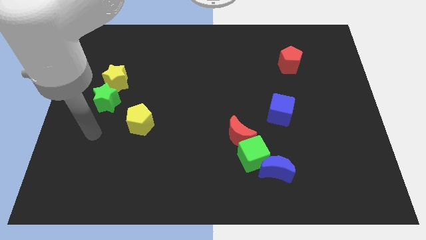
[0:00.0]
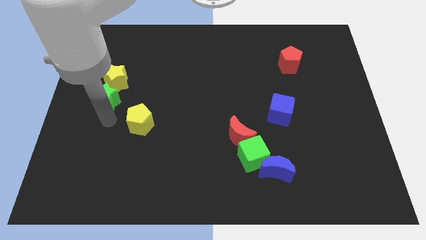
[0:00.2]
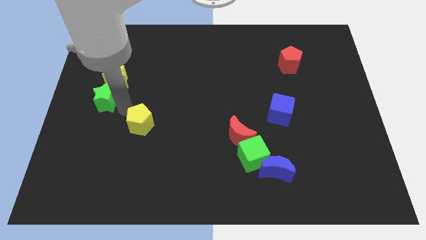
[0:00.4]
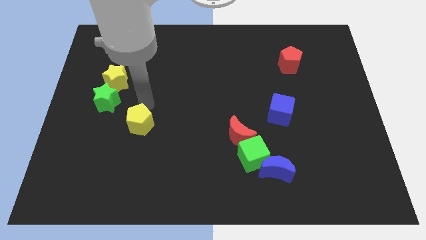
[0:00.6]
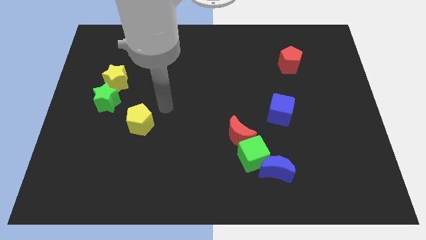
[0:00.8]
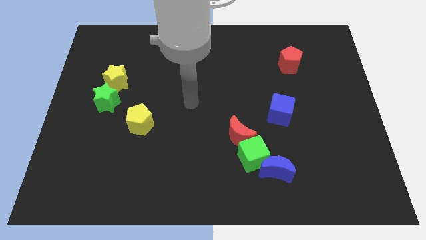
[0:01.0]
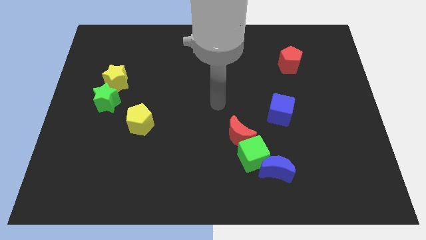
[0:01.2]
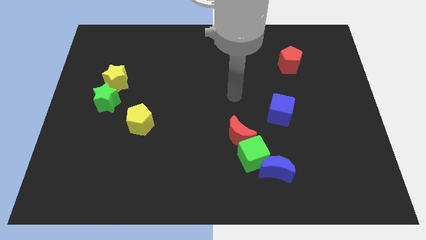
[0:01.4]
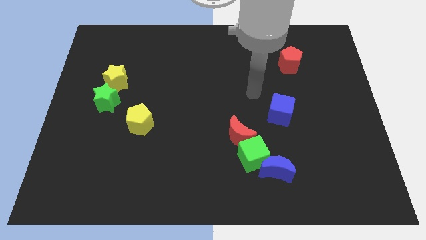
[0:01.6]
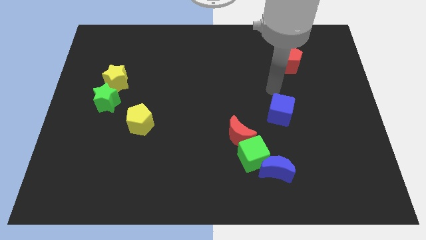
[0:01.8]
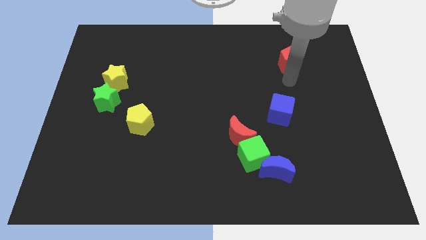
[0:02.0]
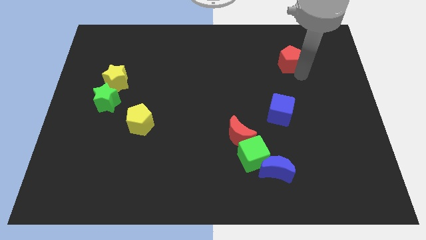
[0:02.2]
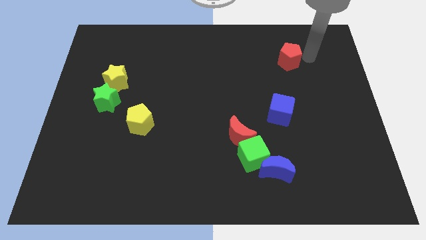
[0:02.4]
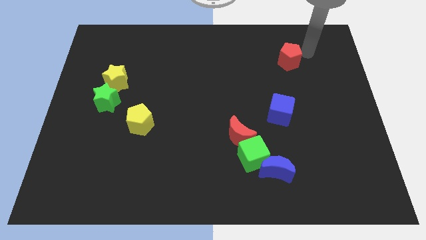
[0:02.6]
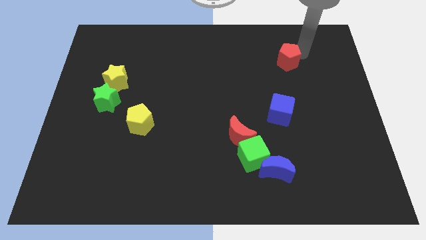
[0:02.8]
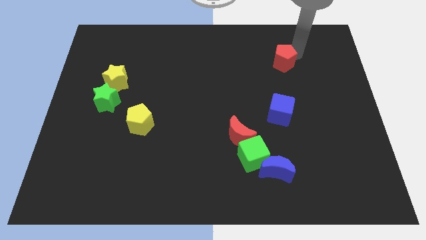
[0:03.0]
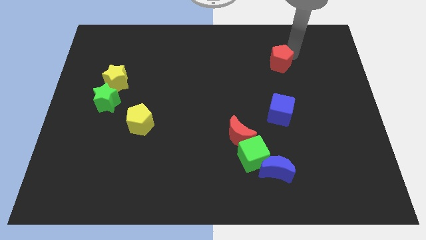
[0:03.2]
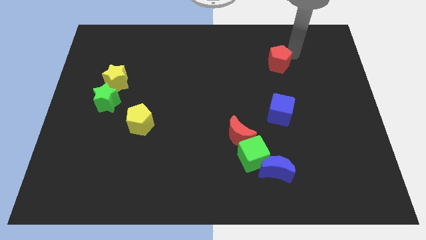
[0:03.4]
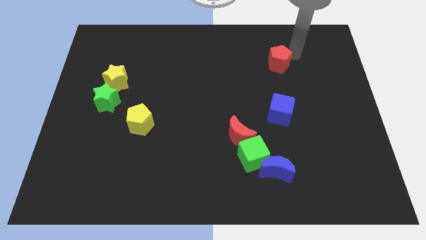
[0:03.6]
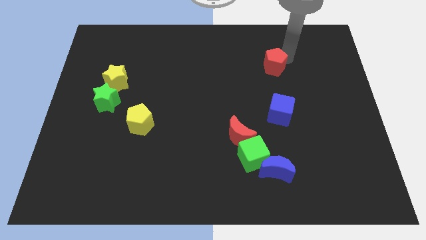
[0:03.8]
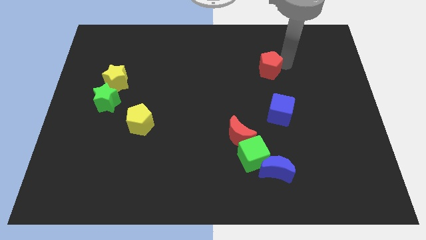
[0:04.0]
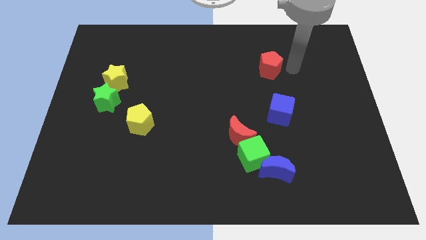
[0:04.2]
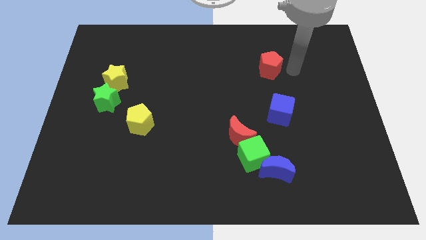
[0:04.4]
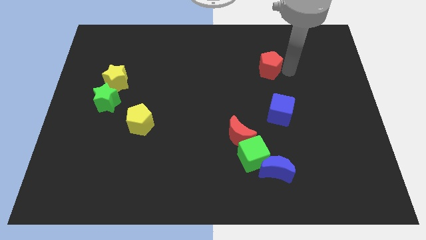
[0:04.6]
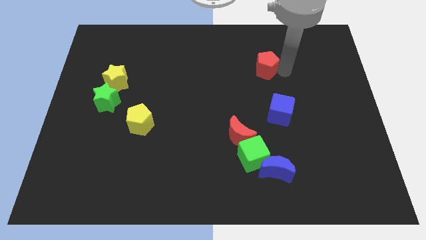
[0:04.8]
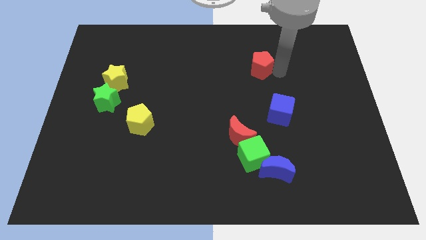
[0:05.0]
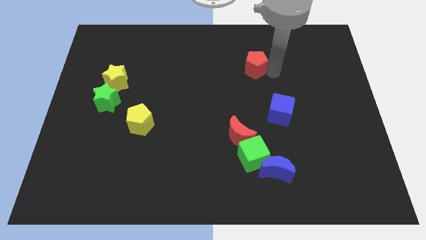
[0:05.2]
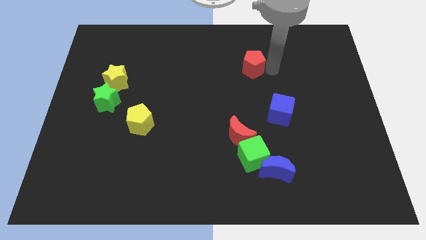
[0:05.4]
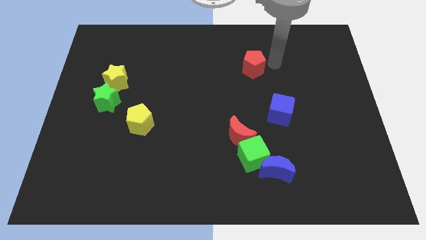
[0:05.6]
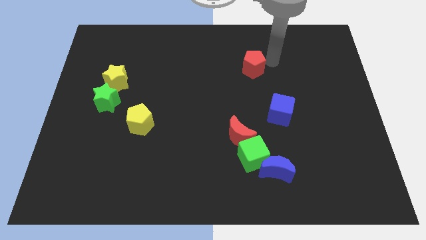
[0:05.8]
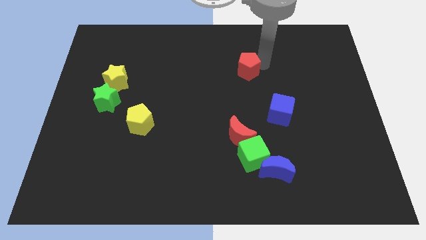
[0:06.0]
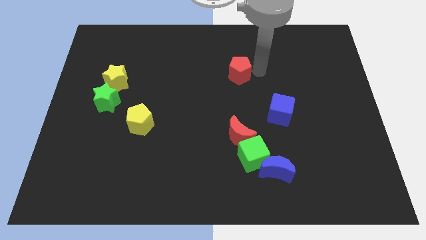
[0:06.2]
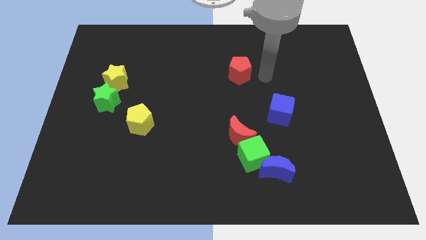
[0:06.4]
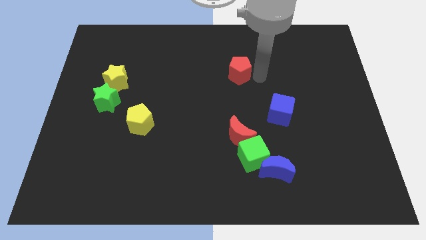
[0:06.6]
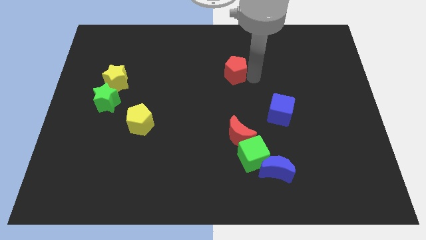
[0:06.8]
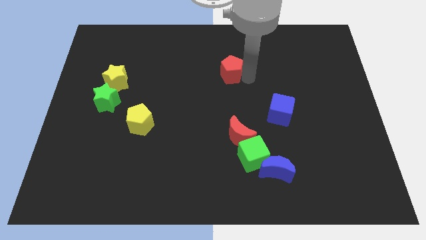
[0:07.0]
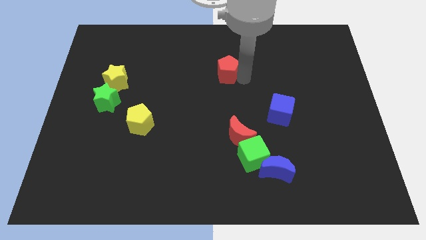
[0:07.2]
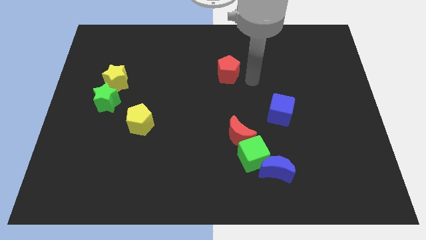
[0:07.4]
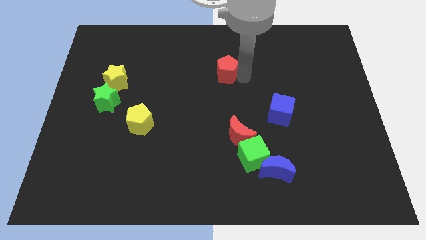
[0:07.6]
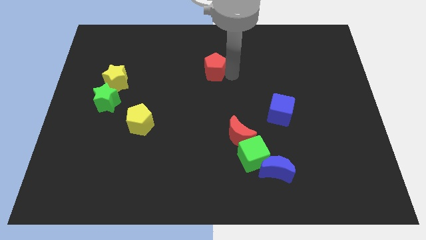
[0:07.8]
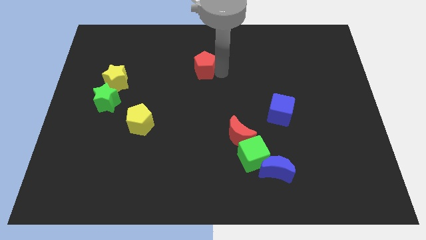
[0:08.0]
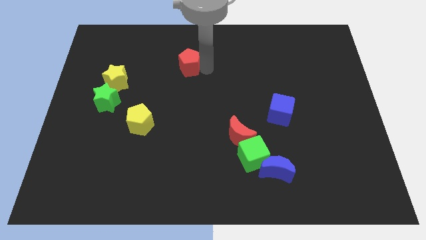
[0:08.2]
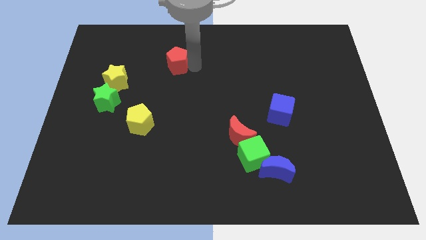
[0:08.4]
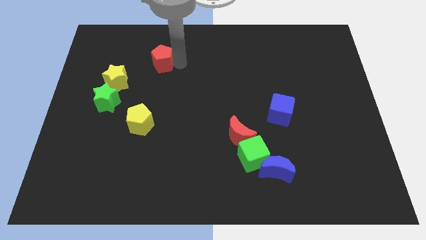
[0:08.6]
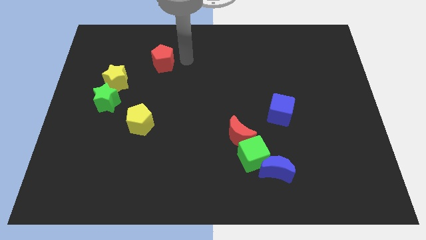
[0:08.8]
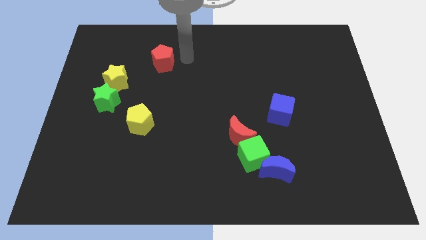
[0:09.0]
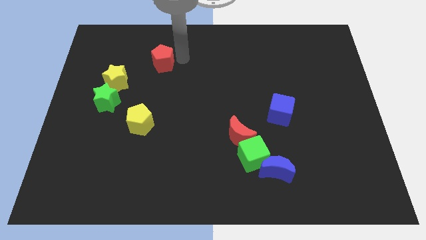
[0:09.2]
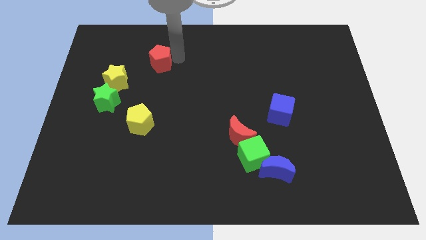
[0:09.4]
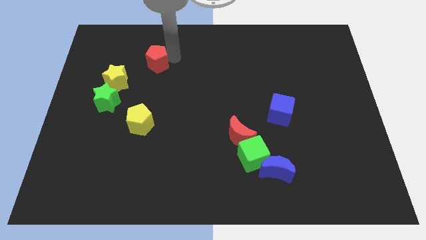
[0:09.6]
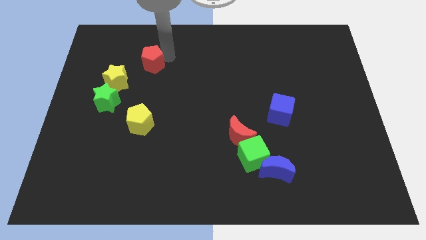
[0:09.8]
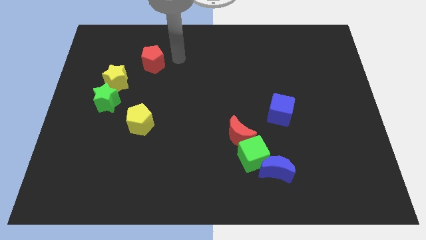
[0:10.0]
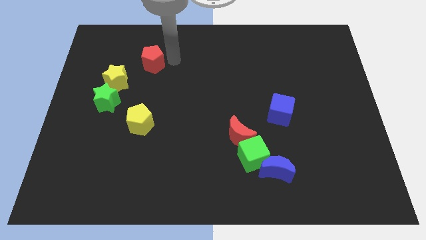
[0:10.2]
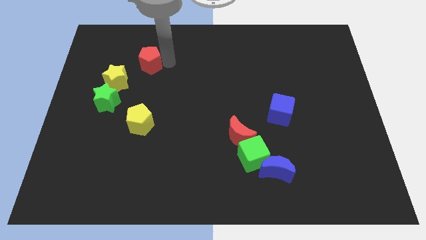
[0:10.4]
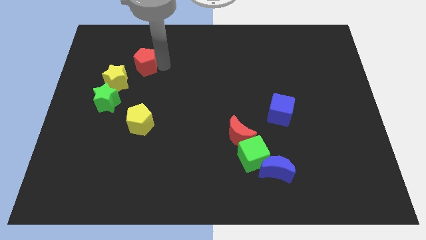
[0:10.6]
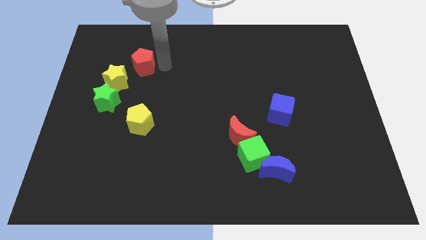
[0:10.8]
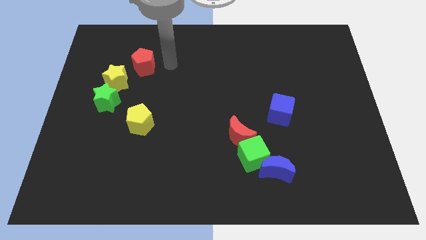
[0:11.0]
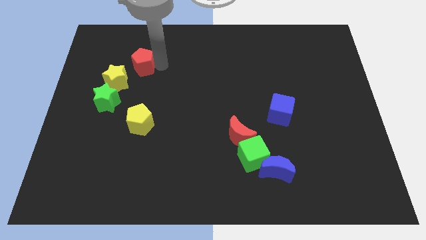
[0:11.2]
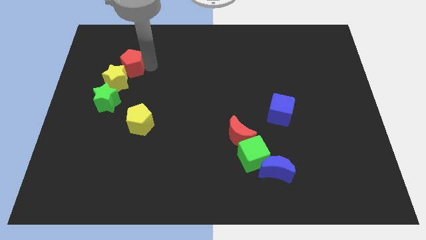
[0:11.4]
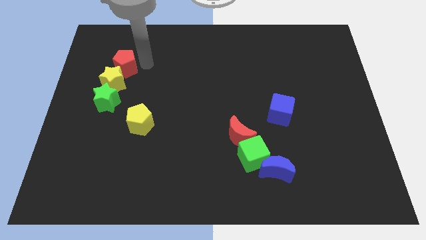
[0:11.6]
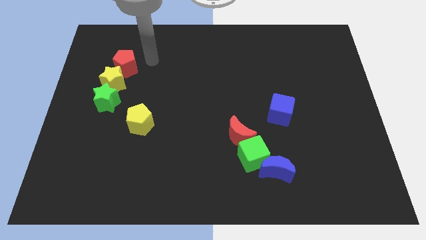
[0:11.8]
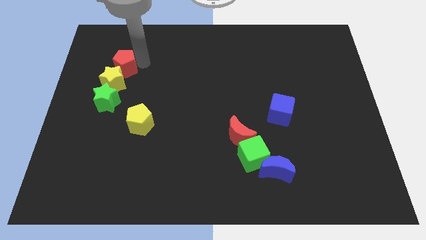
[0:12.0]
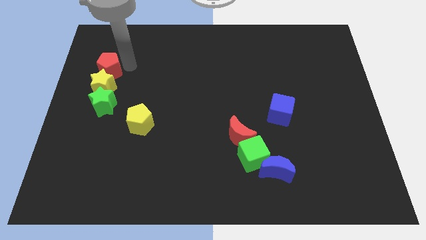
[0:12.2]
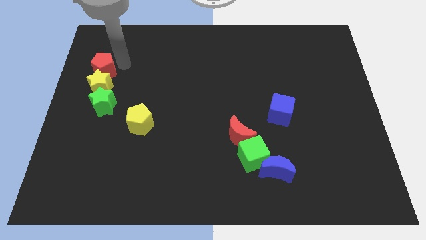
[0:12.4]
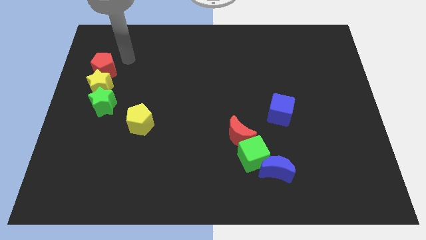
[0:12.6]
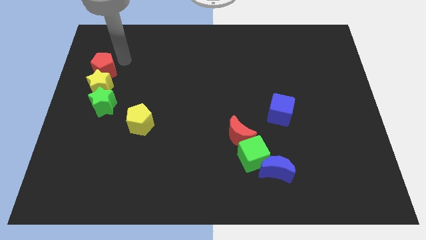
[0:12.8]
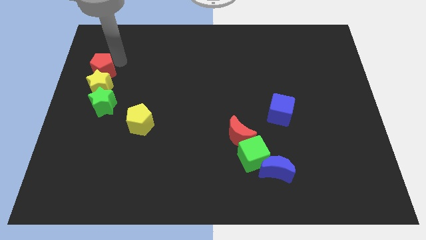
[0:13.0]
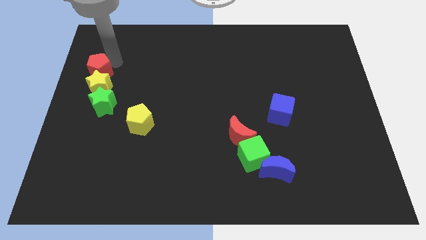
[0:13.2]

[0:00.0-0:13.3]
put the red pentagon to the left side

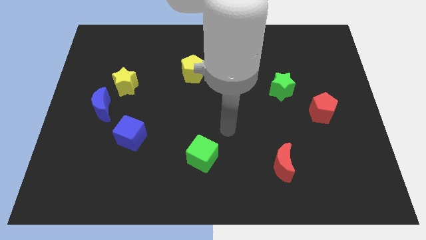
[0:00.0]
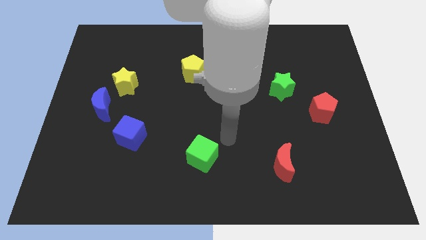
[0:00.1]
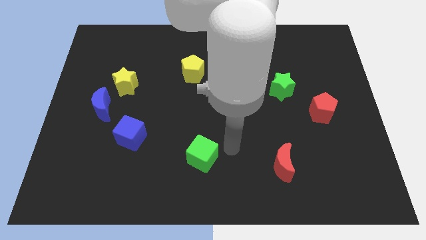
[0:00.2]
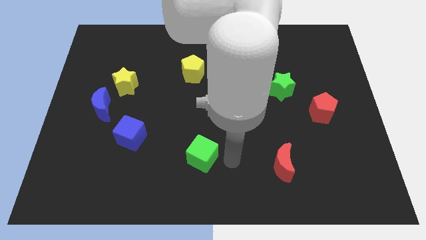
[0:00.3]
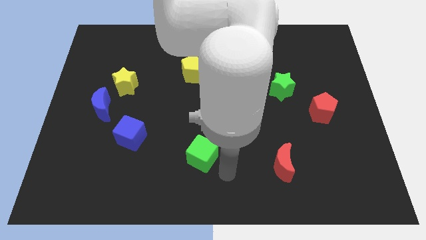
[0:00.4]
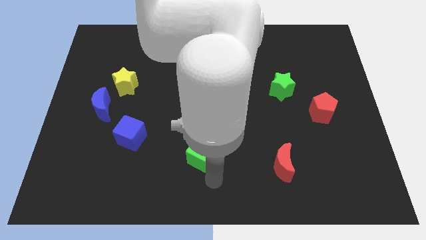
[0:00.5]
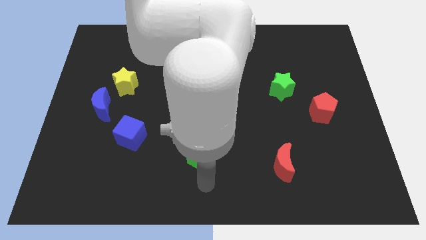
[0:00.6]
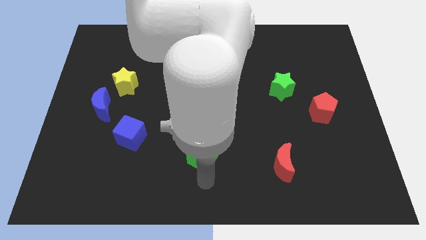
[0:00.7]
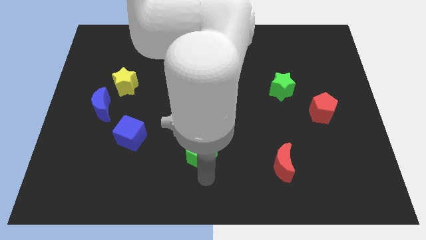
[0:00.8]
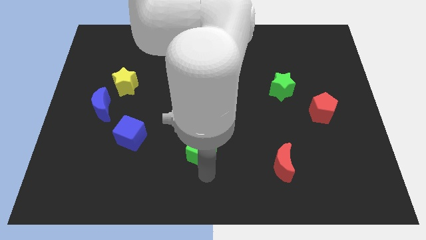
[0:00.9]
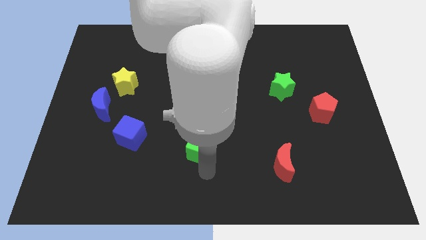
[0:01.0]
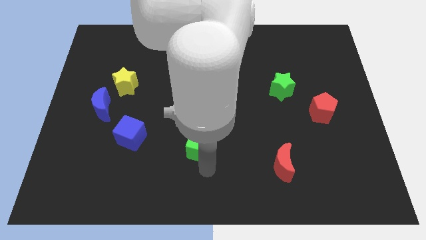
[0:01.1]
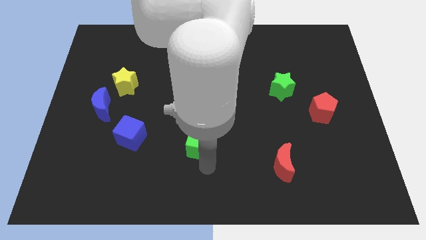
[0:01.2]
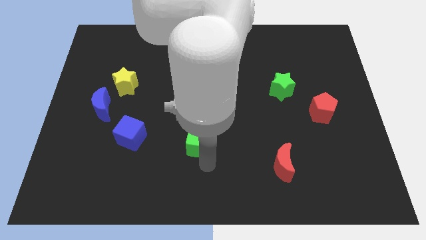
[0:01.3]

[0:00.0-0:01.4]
slide the green cube to the center of the board
